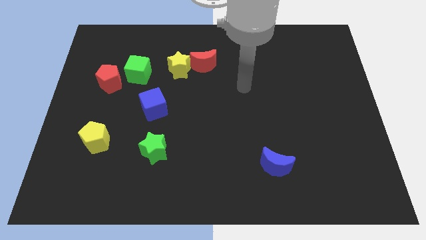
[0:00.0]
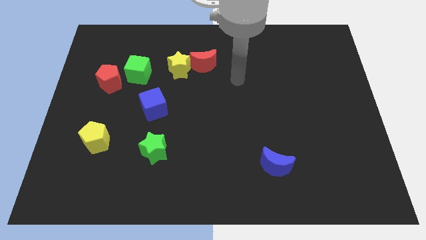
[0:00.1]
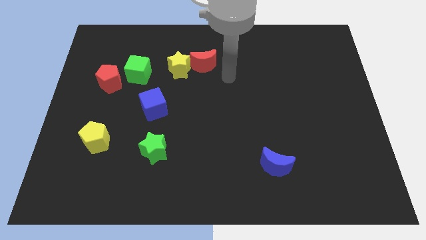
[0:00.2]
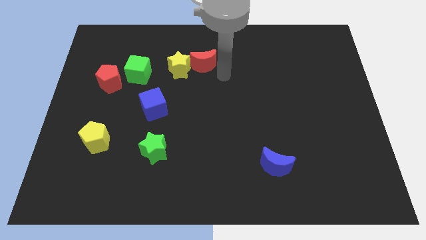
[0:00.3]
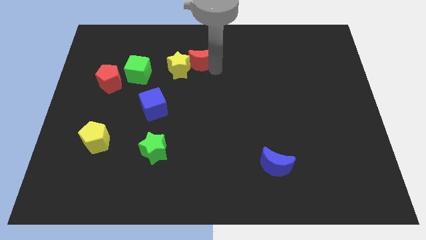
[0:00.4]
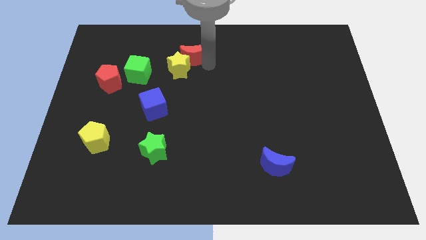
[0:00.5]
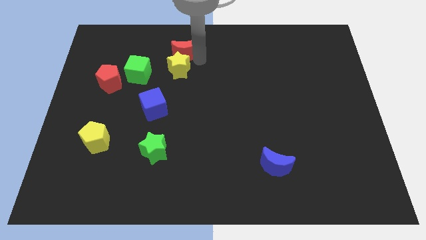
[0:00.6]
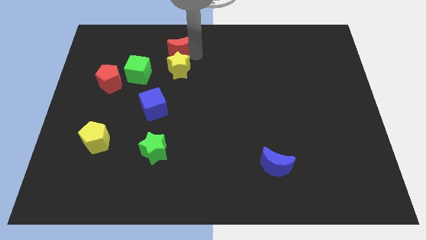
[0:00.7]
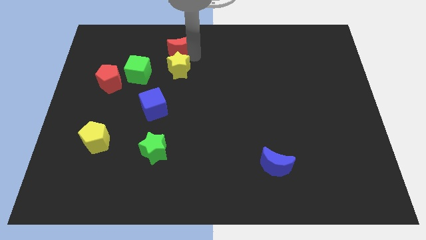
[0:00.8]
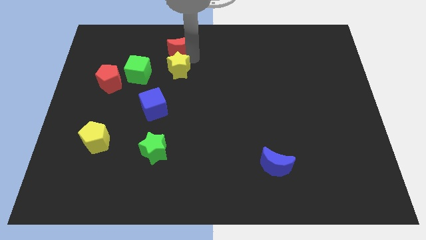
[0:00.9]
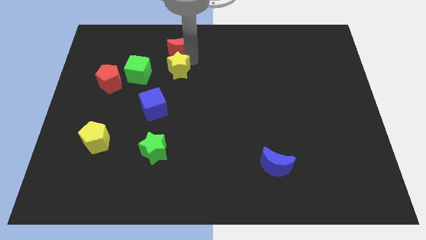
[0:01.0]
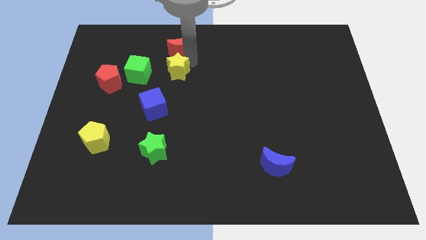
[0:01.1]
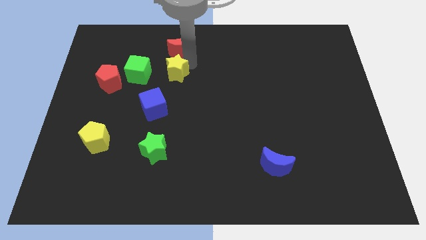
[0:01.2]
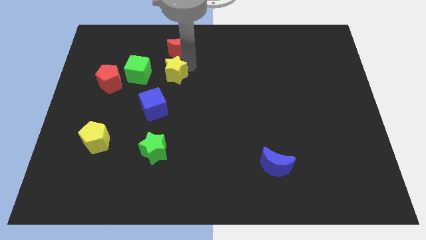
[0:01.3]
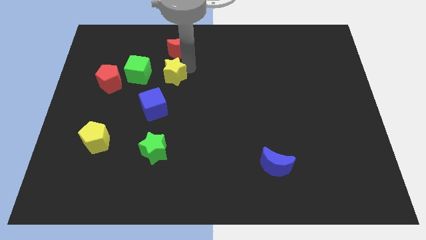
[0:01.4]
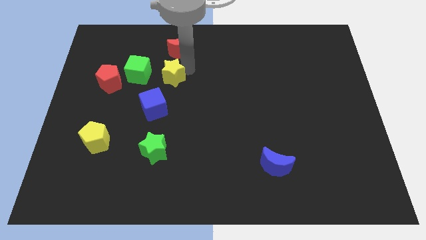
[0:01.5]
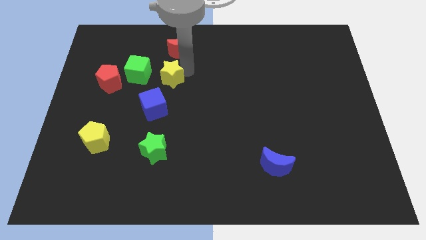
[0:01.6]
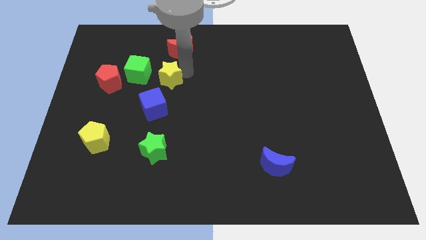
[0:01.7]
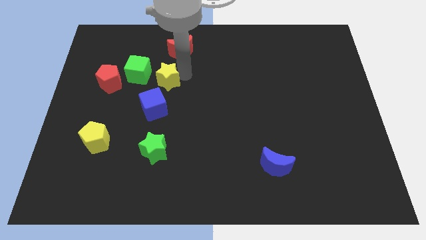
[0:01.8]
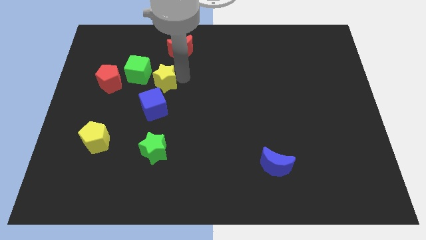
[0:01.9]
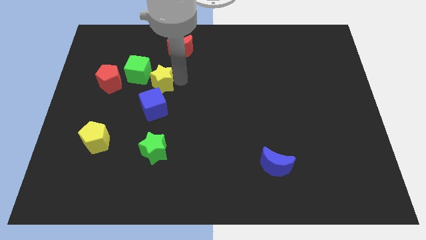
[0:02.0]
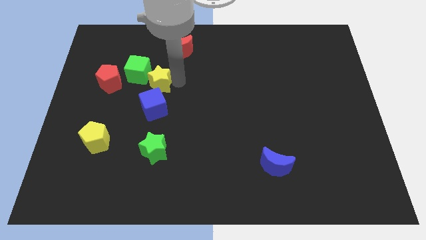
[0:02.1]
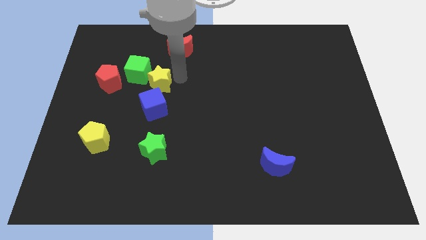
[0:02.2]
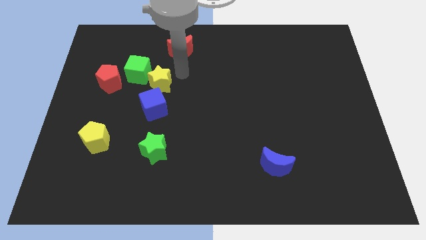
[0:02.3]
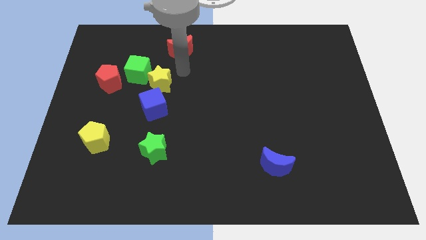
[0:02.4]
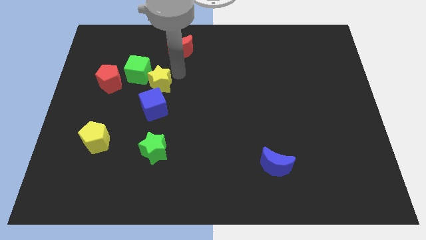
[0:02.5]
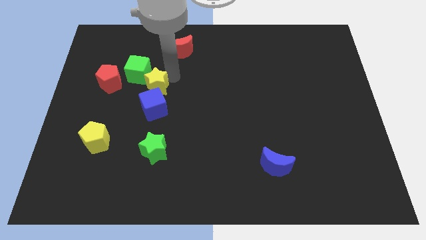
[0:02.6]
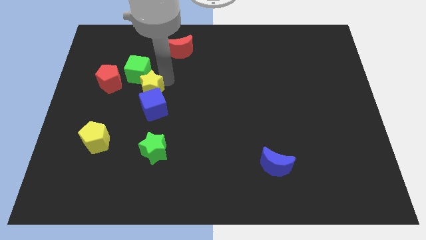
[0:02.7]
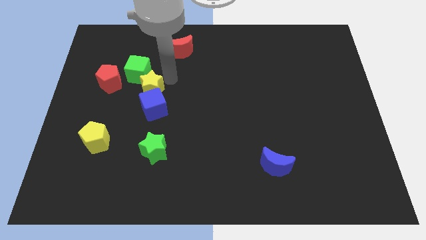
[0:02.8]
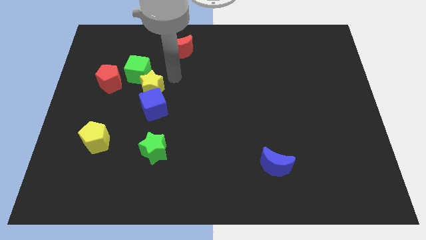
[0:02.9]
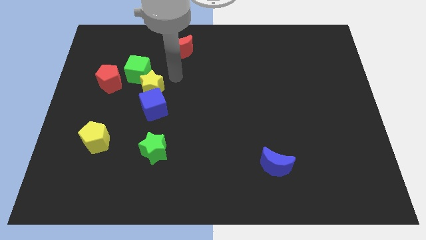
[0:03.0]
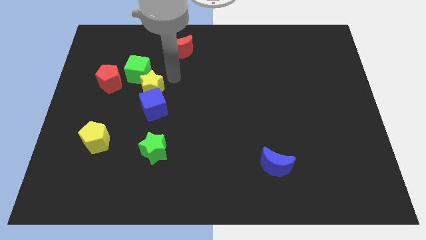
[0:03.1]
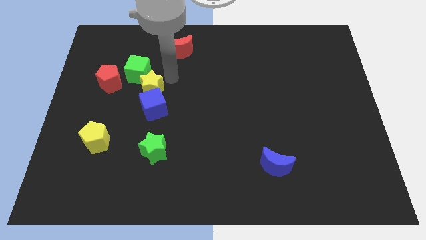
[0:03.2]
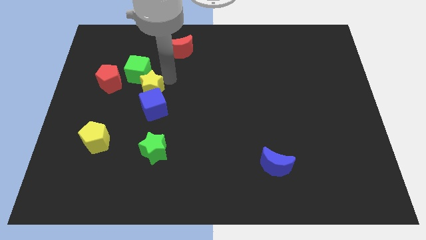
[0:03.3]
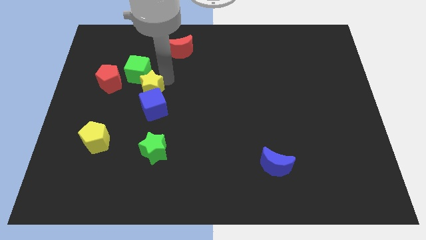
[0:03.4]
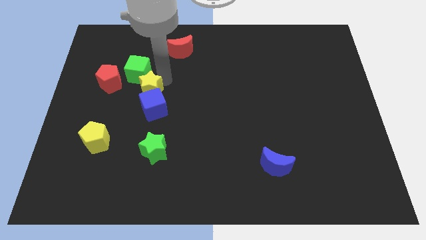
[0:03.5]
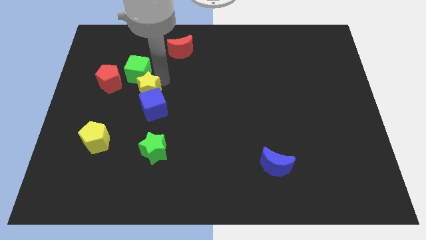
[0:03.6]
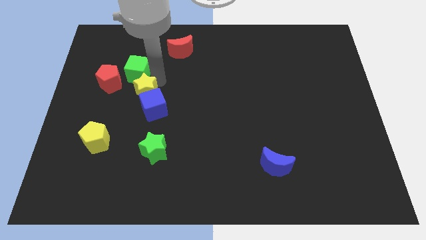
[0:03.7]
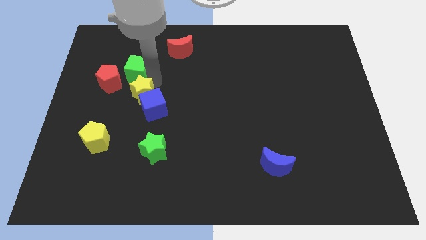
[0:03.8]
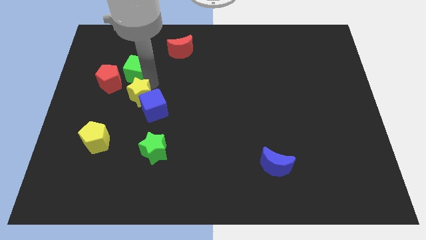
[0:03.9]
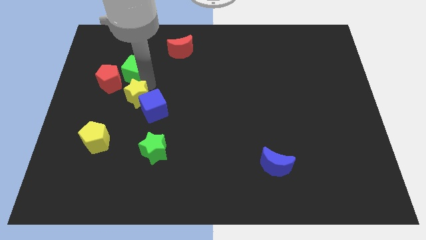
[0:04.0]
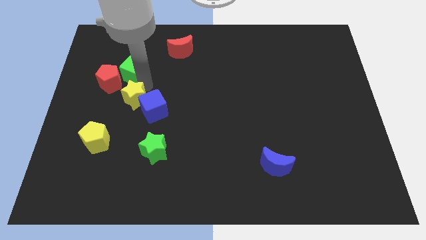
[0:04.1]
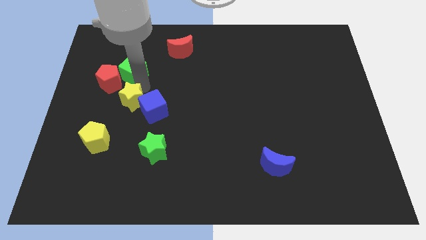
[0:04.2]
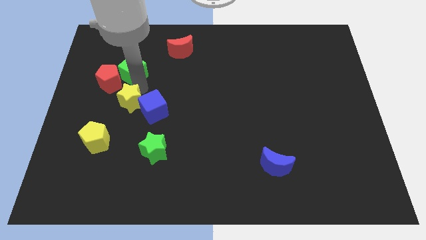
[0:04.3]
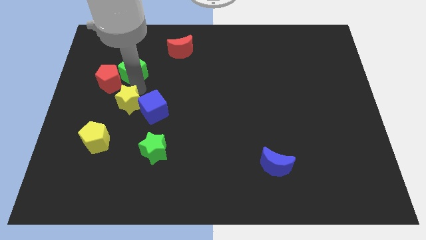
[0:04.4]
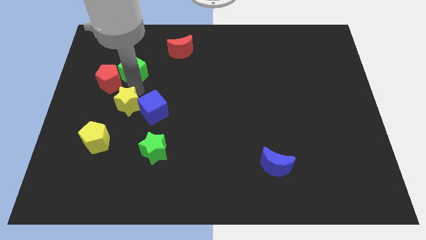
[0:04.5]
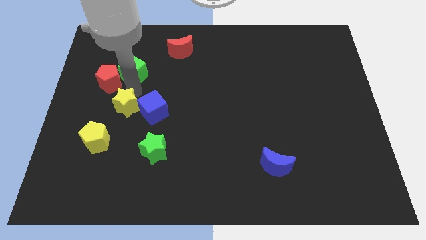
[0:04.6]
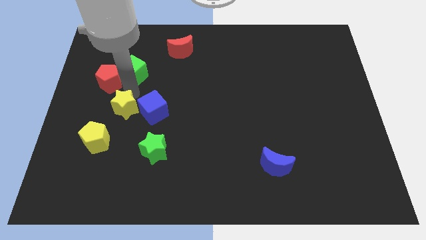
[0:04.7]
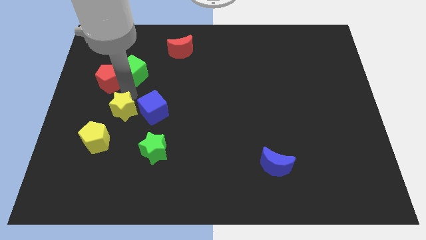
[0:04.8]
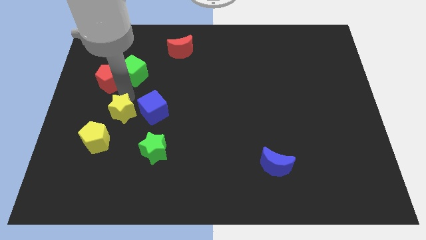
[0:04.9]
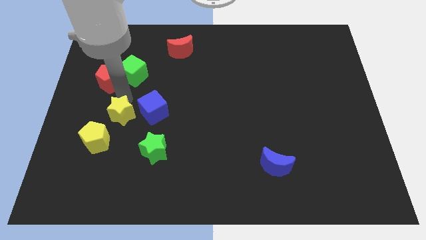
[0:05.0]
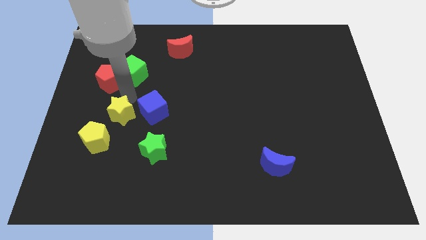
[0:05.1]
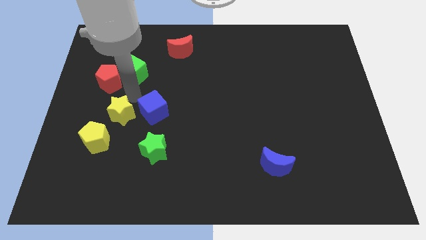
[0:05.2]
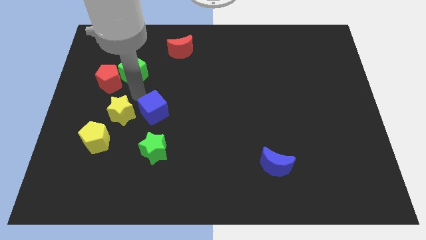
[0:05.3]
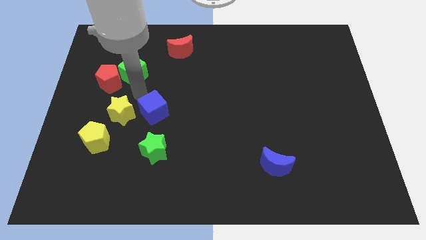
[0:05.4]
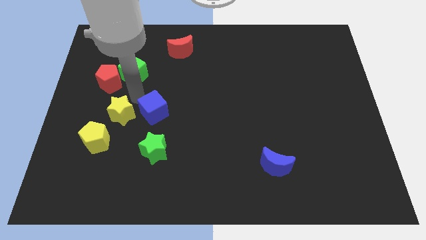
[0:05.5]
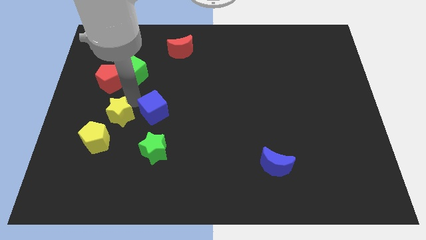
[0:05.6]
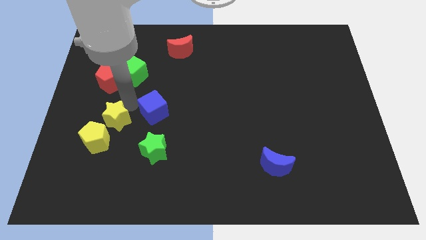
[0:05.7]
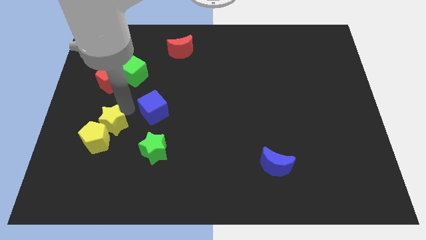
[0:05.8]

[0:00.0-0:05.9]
move the yellow star to the yellow pentagon

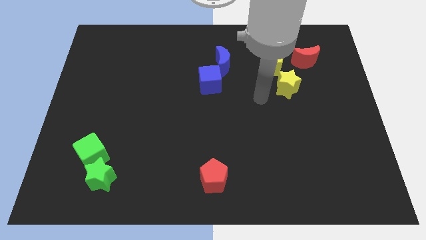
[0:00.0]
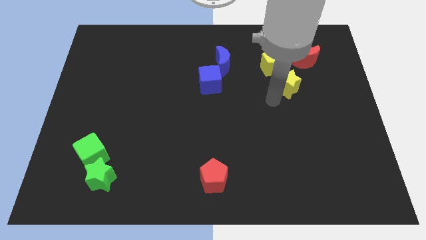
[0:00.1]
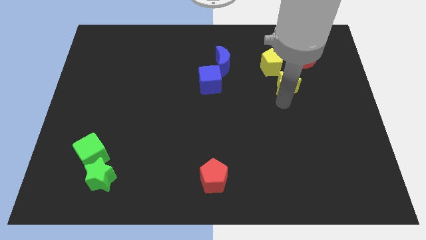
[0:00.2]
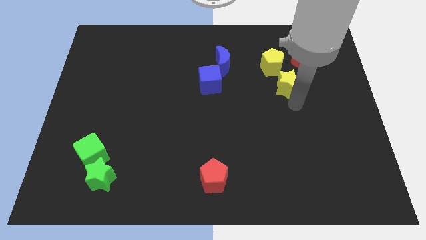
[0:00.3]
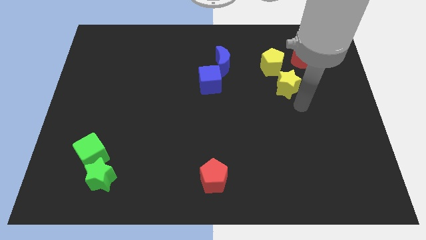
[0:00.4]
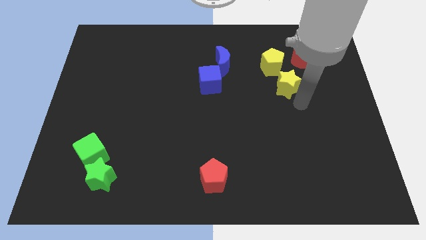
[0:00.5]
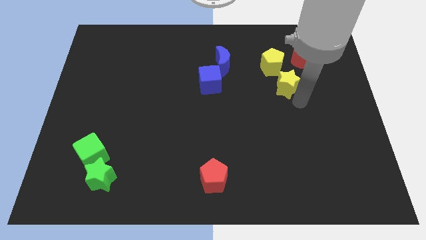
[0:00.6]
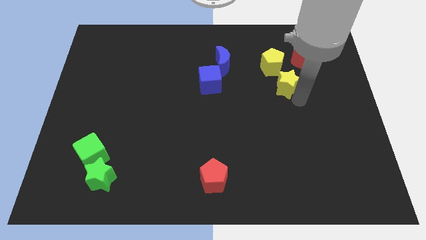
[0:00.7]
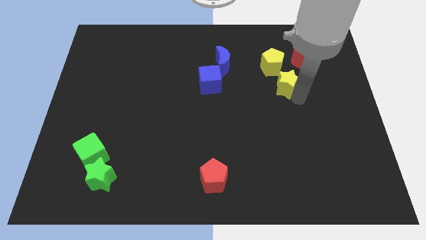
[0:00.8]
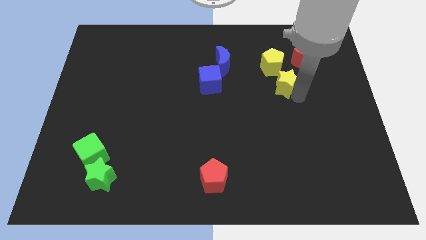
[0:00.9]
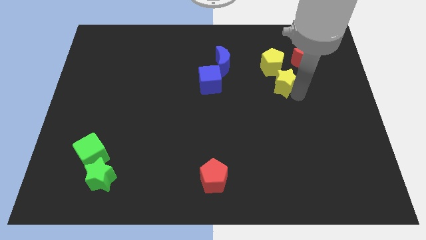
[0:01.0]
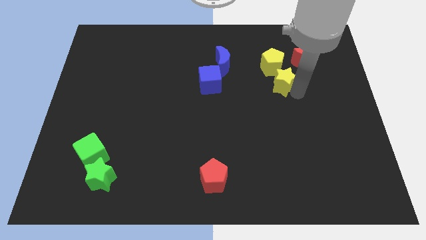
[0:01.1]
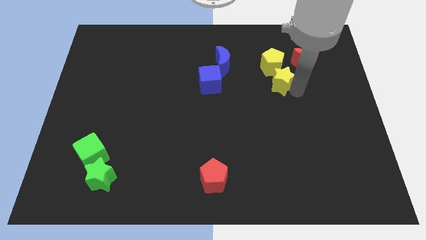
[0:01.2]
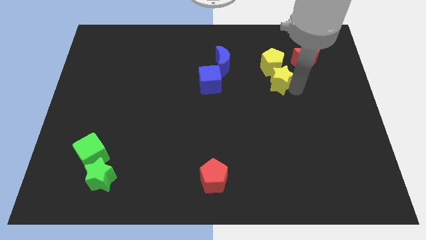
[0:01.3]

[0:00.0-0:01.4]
push the yellow star close to the yellow pentagon
